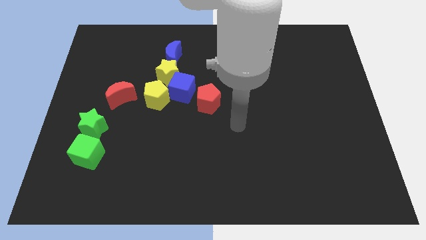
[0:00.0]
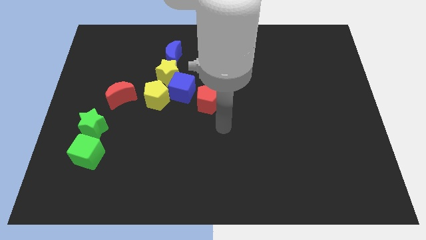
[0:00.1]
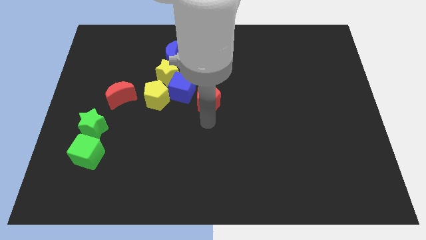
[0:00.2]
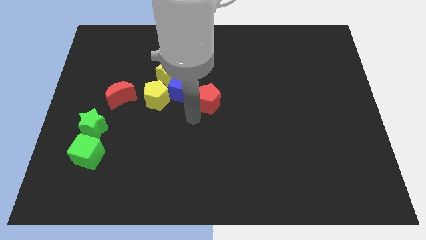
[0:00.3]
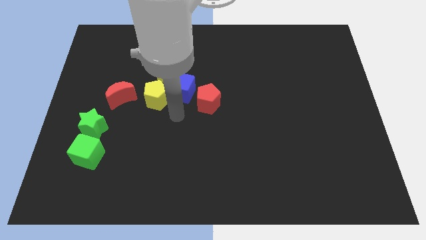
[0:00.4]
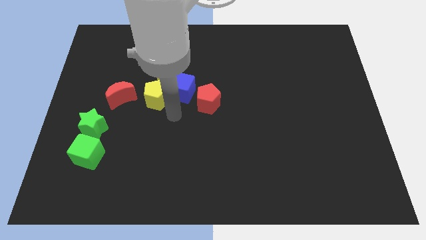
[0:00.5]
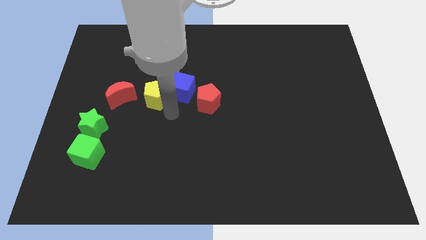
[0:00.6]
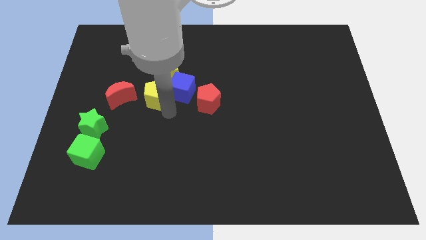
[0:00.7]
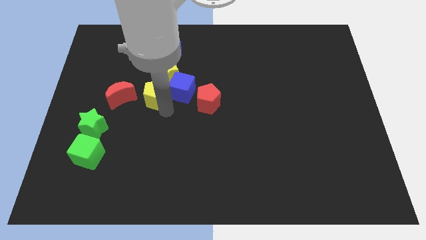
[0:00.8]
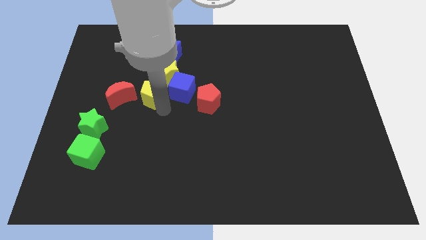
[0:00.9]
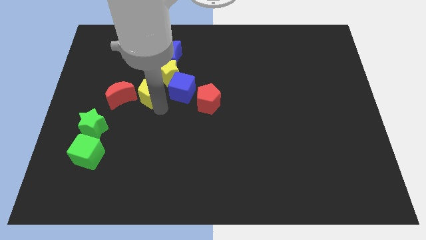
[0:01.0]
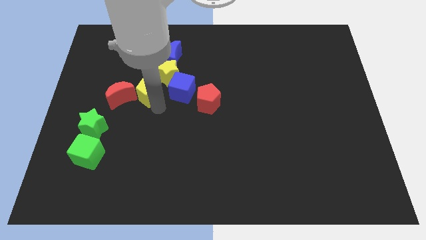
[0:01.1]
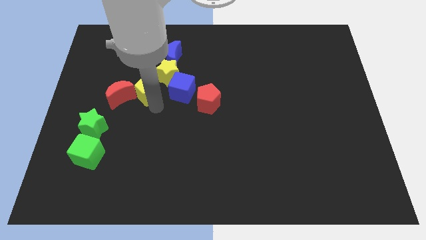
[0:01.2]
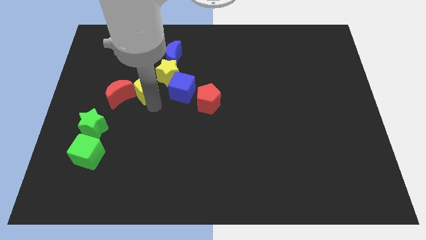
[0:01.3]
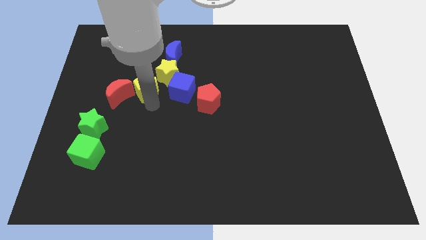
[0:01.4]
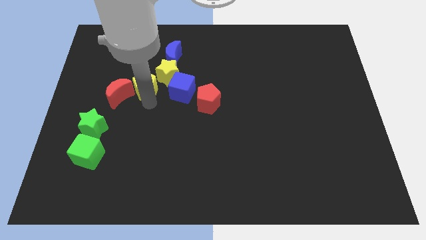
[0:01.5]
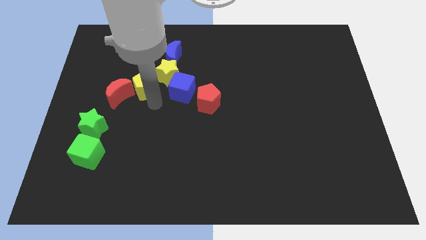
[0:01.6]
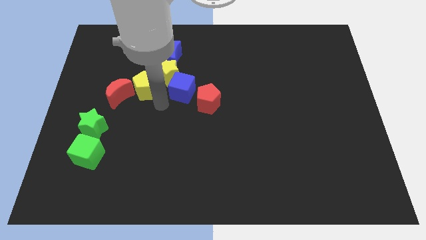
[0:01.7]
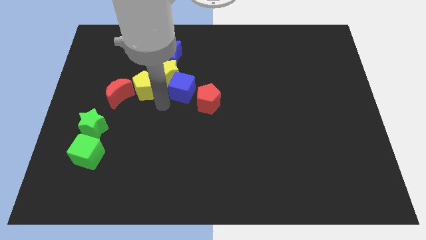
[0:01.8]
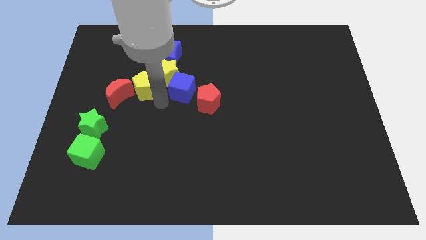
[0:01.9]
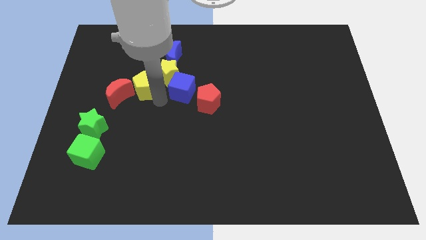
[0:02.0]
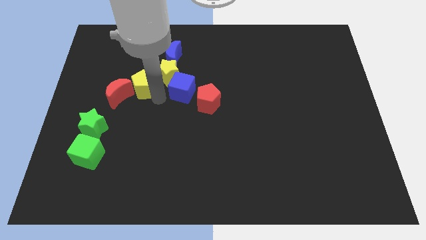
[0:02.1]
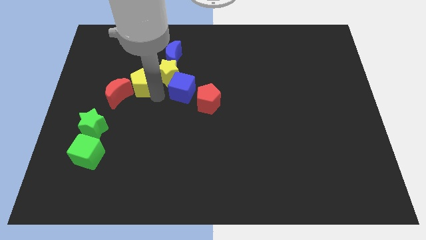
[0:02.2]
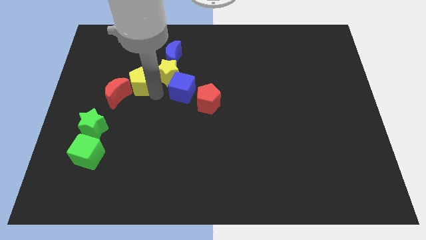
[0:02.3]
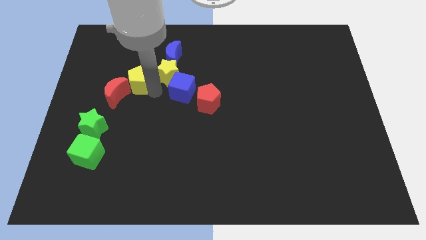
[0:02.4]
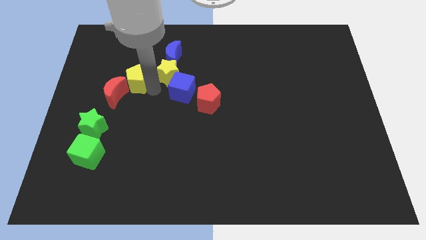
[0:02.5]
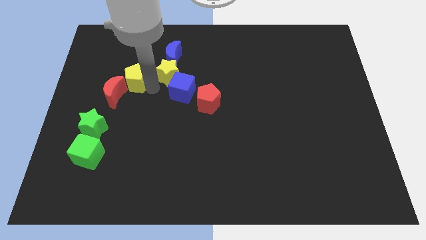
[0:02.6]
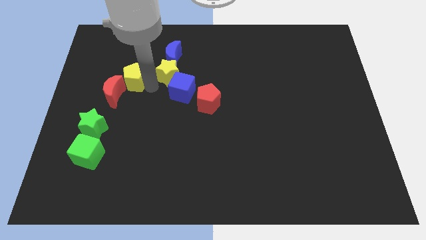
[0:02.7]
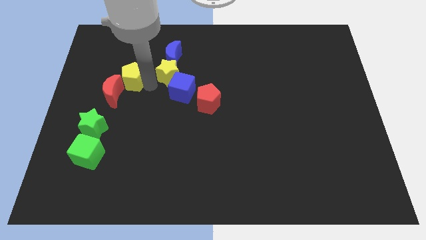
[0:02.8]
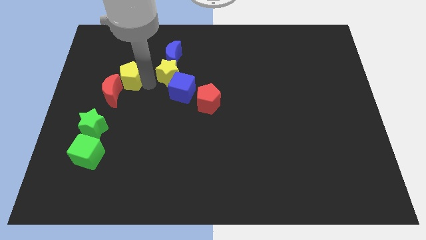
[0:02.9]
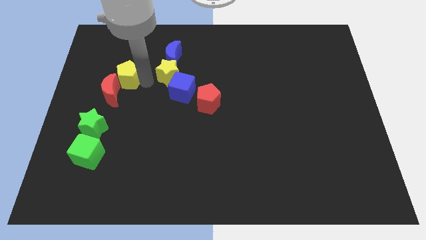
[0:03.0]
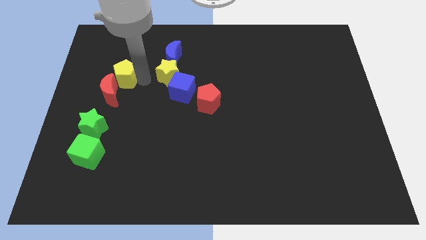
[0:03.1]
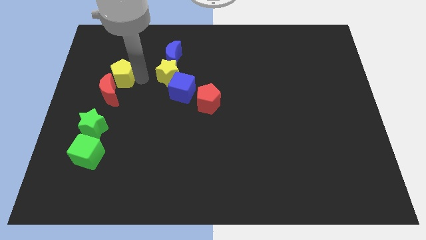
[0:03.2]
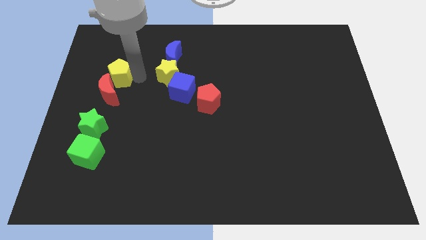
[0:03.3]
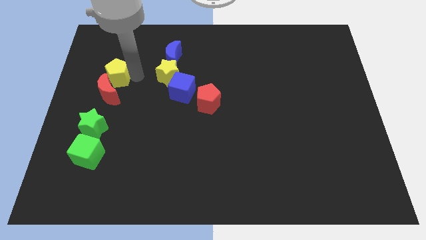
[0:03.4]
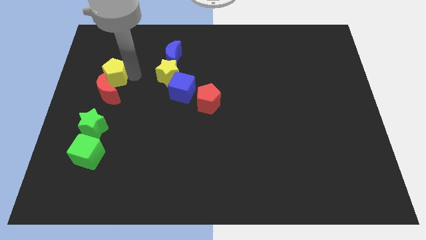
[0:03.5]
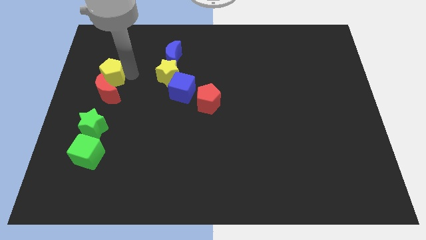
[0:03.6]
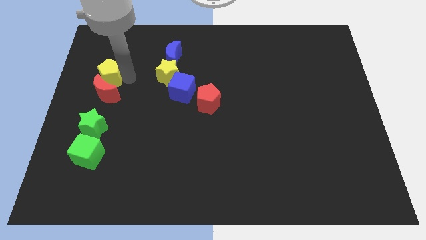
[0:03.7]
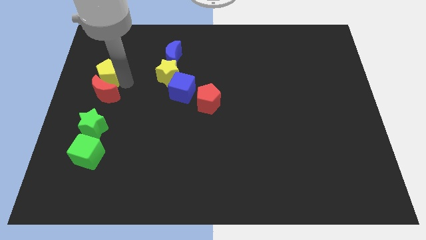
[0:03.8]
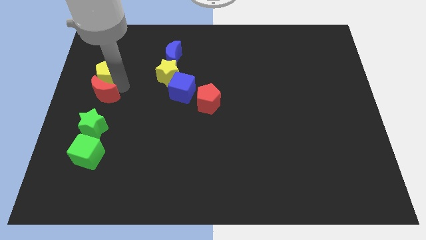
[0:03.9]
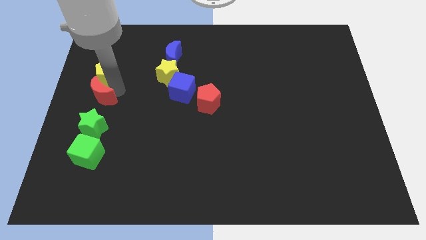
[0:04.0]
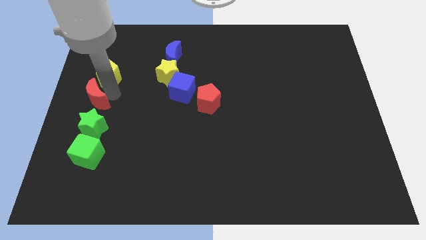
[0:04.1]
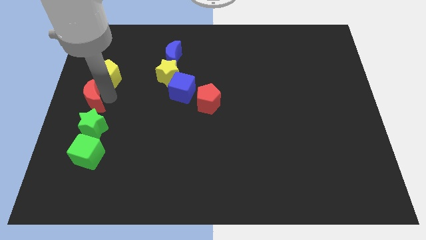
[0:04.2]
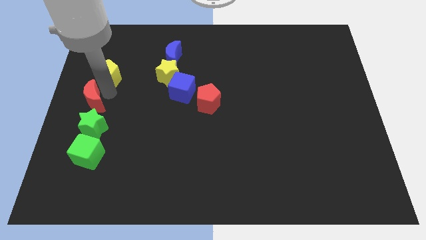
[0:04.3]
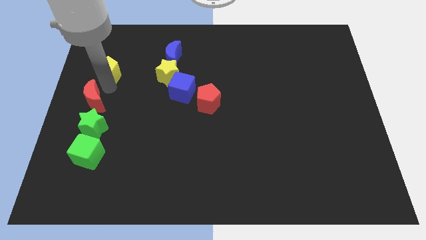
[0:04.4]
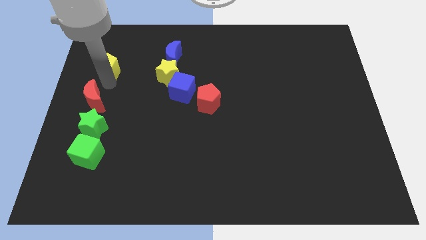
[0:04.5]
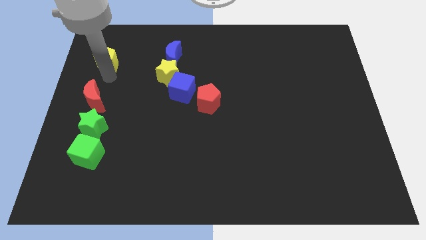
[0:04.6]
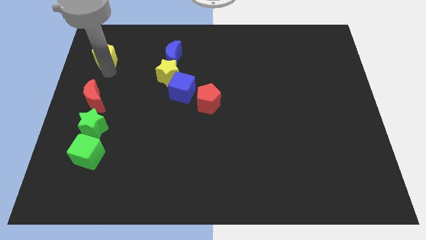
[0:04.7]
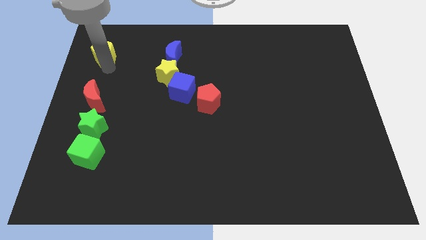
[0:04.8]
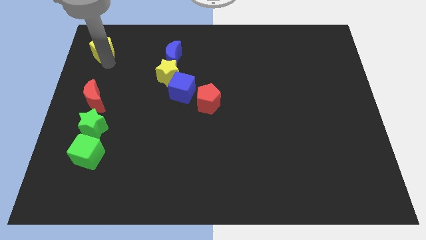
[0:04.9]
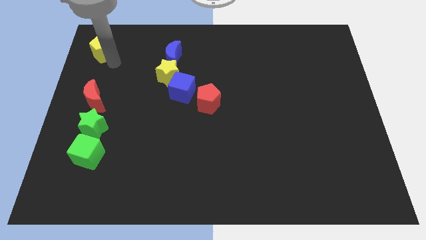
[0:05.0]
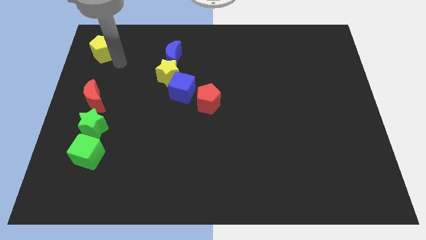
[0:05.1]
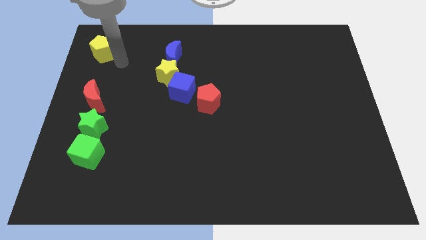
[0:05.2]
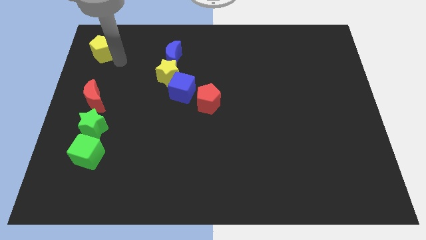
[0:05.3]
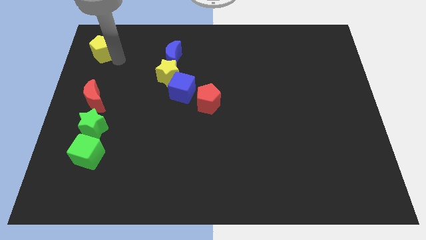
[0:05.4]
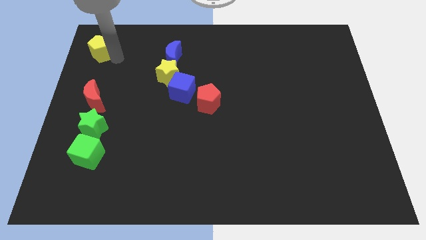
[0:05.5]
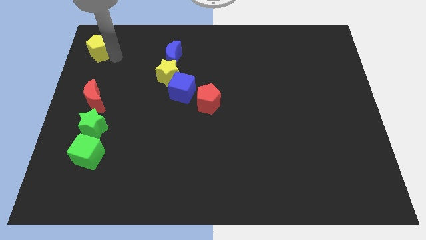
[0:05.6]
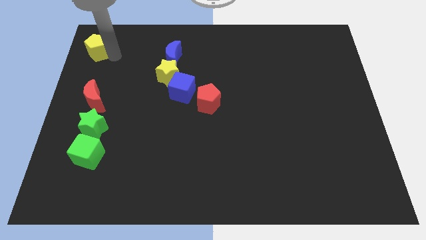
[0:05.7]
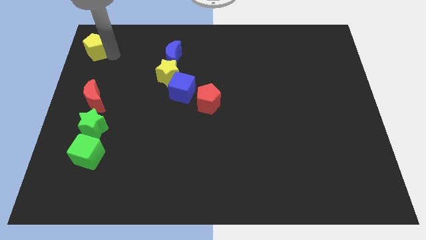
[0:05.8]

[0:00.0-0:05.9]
move the yellow pentagon to the top left

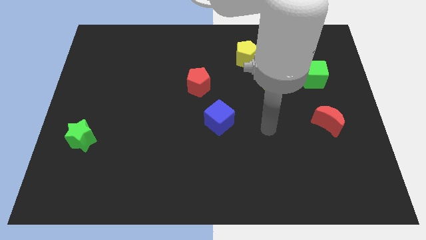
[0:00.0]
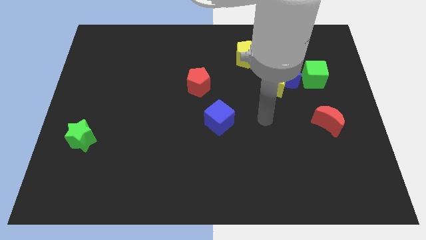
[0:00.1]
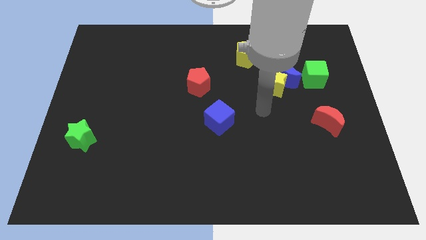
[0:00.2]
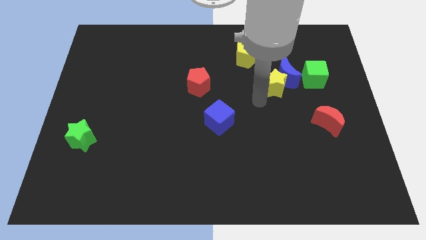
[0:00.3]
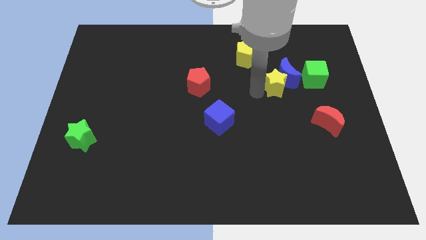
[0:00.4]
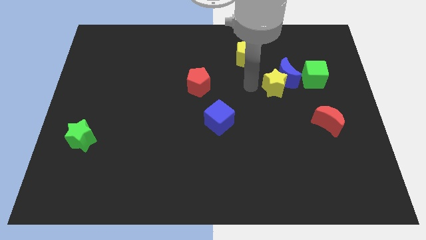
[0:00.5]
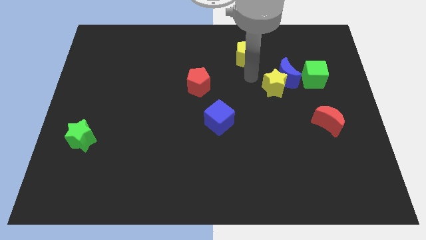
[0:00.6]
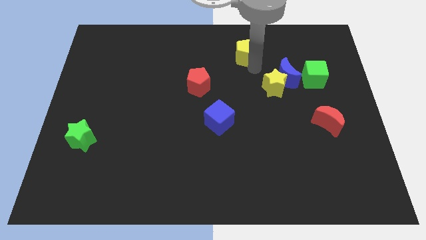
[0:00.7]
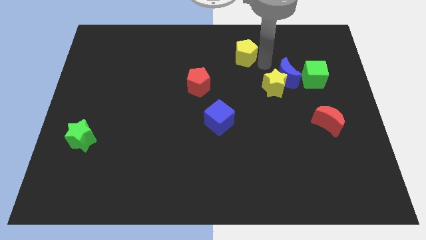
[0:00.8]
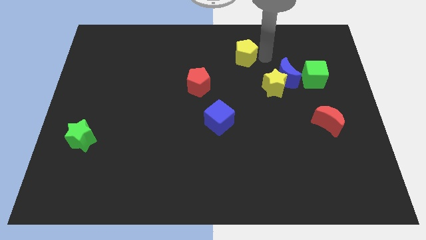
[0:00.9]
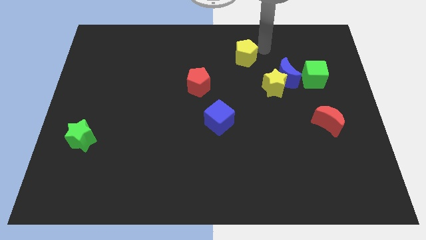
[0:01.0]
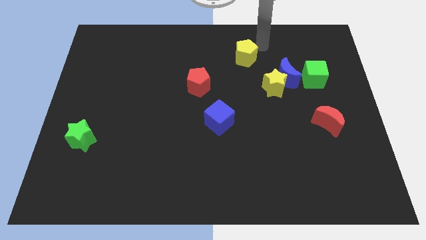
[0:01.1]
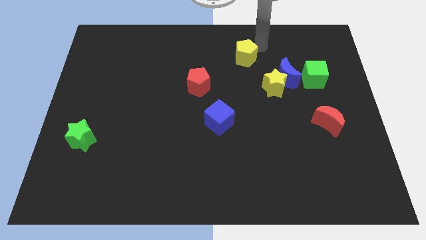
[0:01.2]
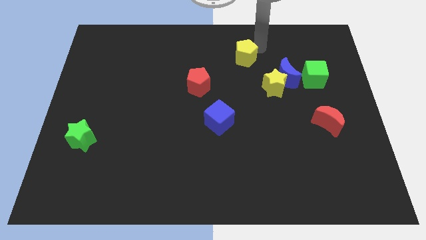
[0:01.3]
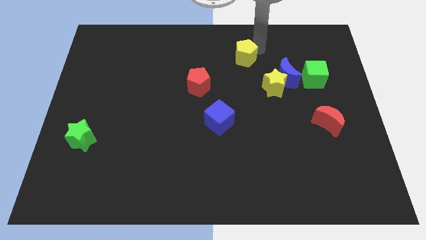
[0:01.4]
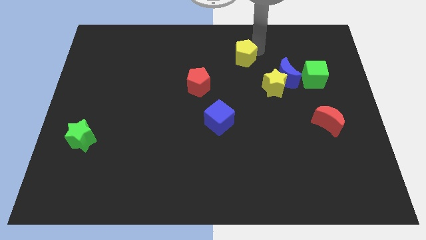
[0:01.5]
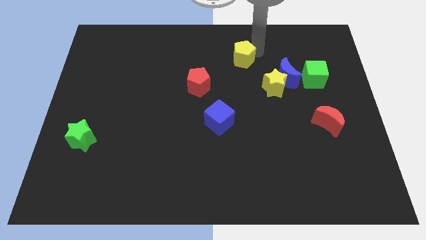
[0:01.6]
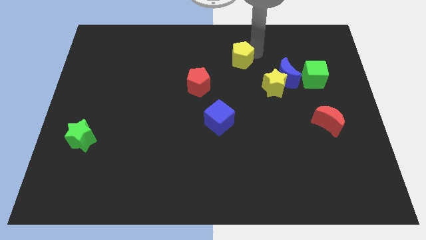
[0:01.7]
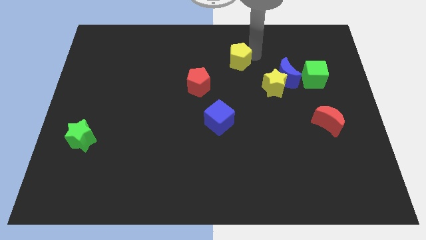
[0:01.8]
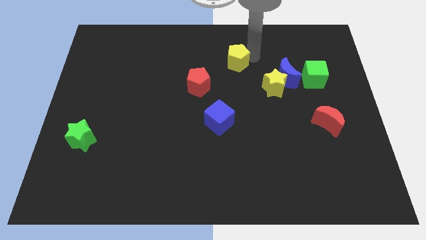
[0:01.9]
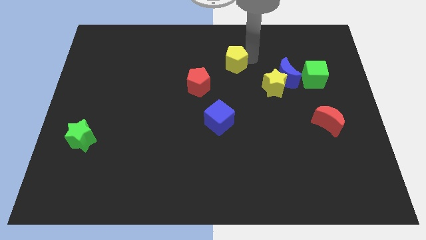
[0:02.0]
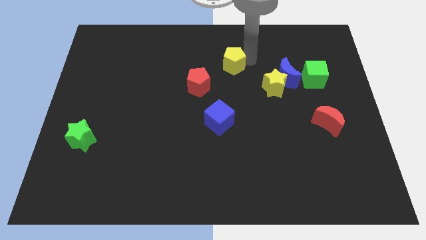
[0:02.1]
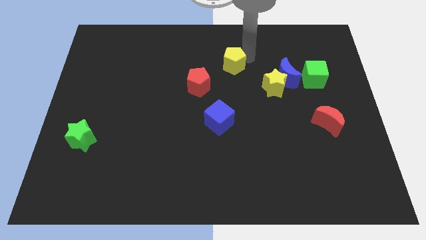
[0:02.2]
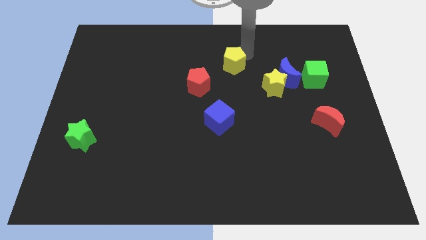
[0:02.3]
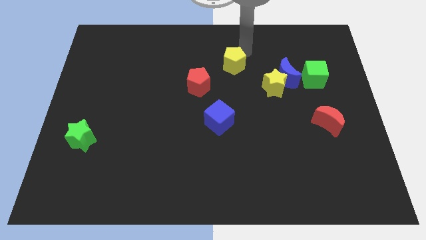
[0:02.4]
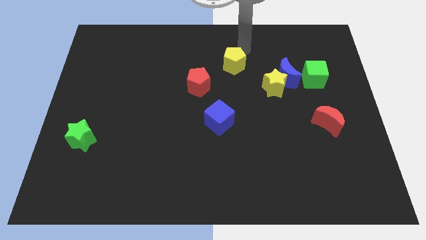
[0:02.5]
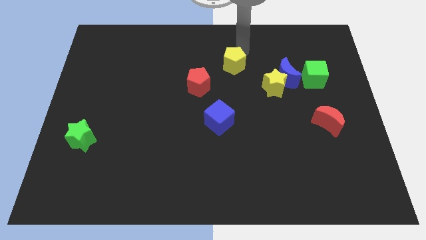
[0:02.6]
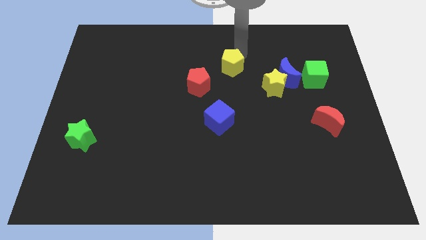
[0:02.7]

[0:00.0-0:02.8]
slide the yellow pentagon to the middle of the board
